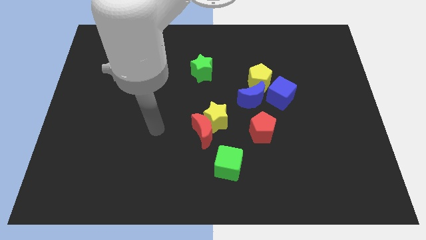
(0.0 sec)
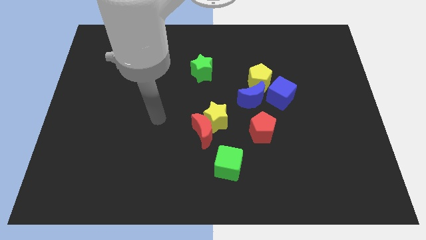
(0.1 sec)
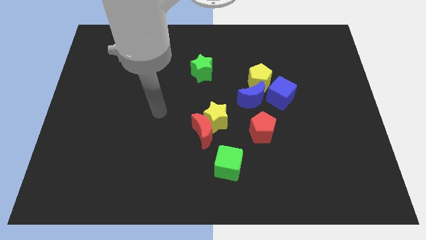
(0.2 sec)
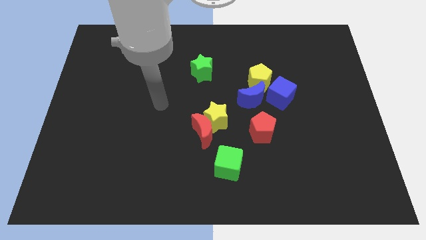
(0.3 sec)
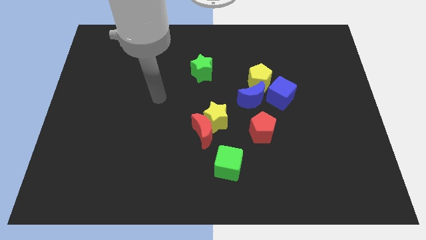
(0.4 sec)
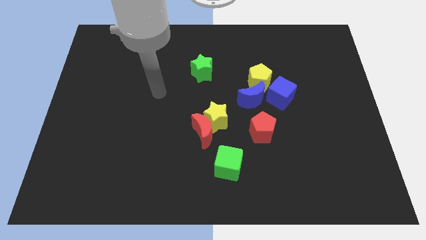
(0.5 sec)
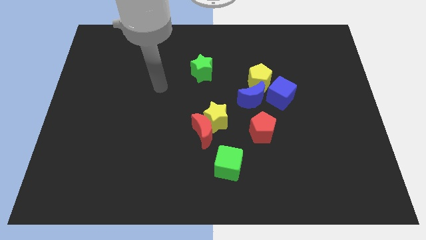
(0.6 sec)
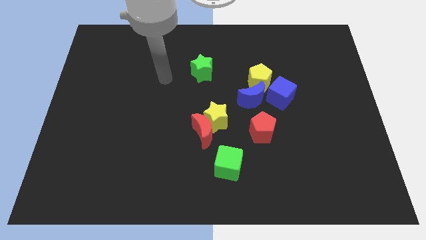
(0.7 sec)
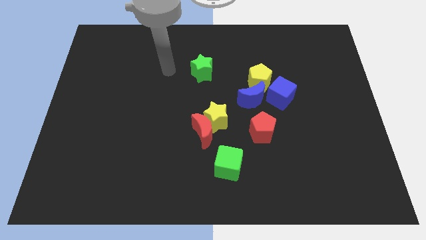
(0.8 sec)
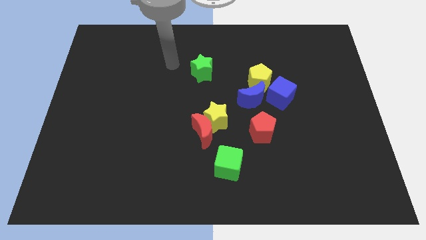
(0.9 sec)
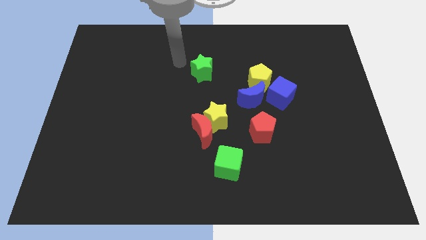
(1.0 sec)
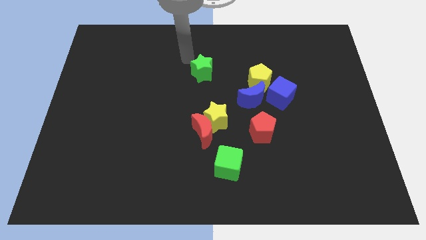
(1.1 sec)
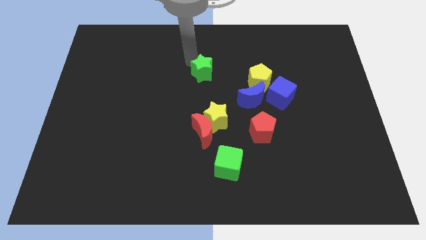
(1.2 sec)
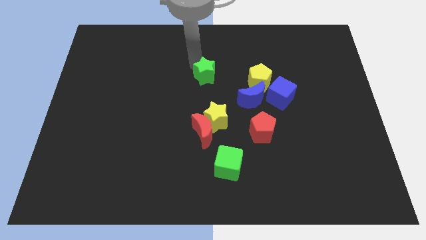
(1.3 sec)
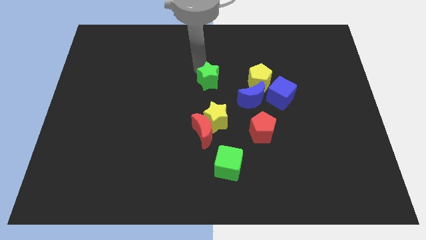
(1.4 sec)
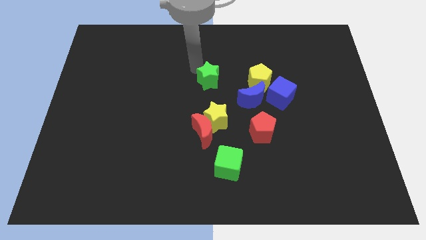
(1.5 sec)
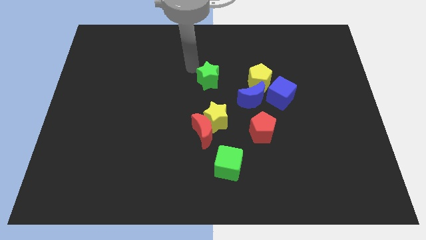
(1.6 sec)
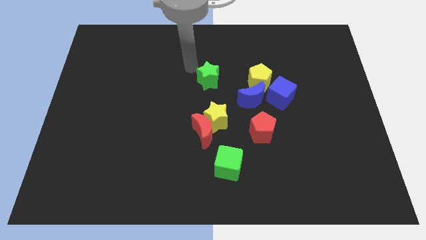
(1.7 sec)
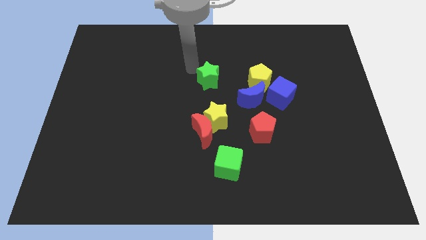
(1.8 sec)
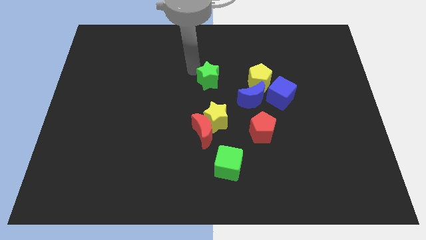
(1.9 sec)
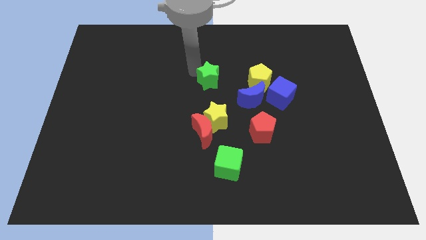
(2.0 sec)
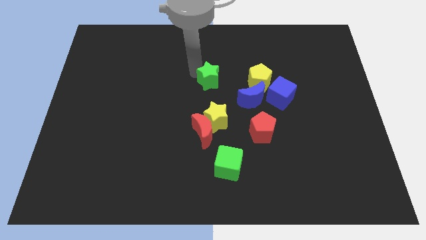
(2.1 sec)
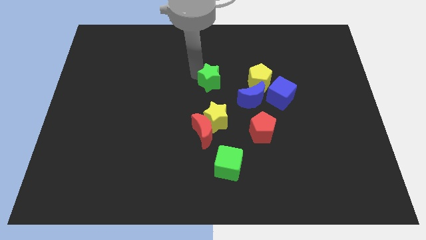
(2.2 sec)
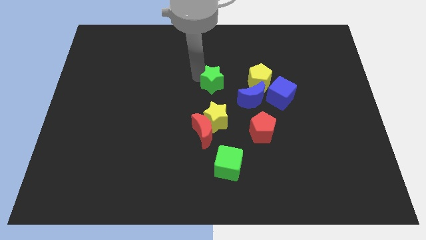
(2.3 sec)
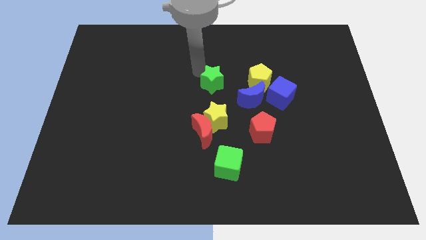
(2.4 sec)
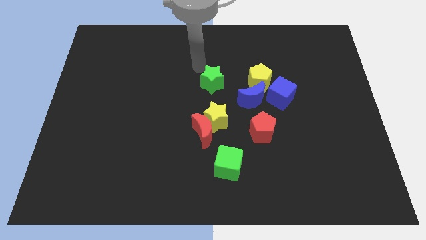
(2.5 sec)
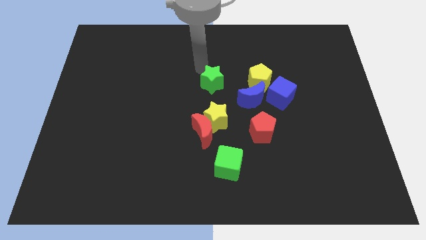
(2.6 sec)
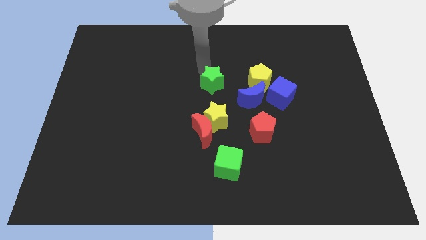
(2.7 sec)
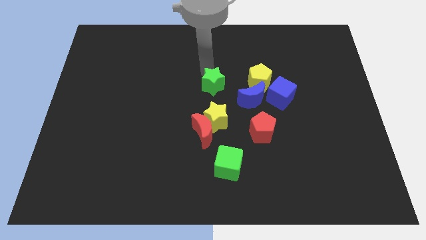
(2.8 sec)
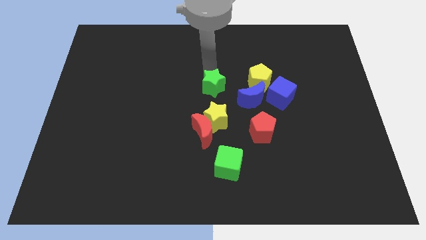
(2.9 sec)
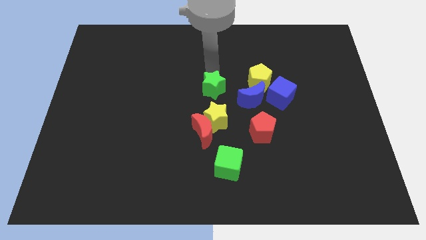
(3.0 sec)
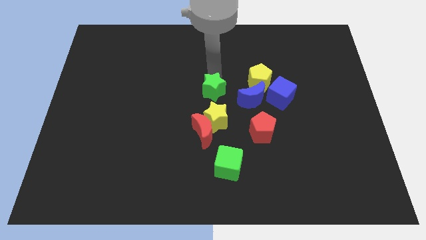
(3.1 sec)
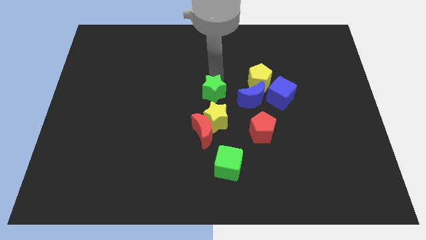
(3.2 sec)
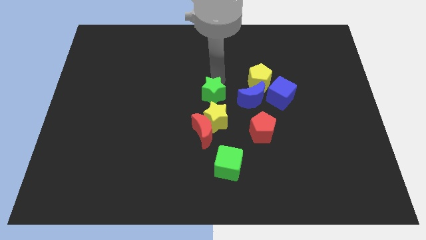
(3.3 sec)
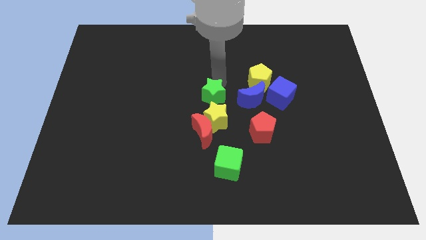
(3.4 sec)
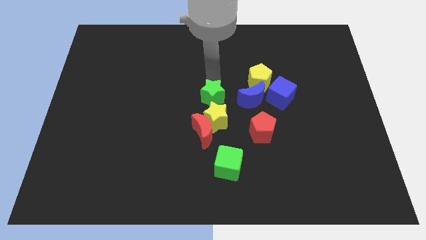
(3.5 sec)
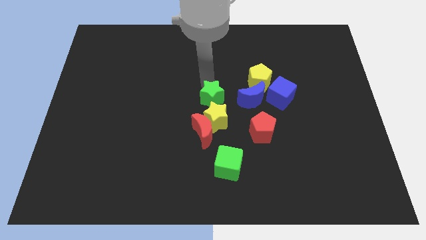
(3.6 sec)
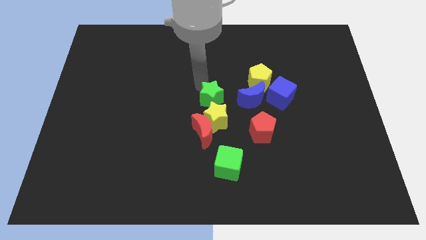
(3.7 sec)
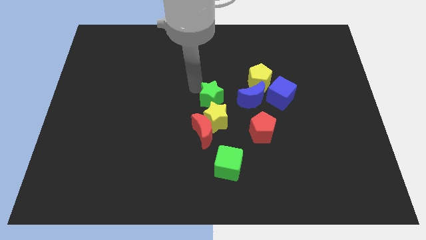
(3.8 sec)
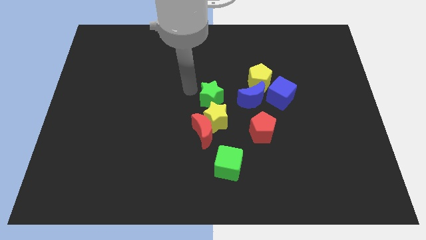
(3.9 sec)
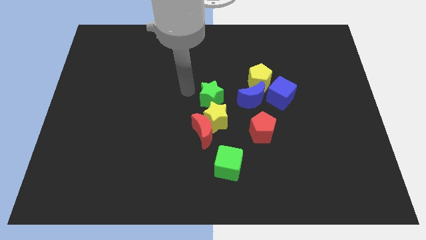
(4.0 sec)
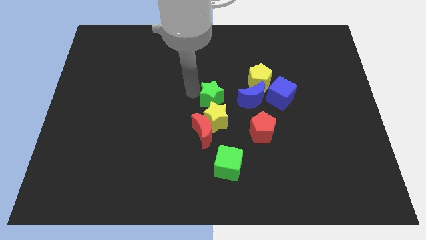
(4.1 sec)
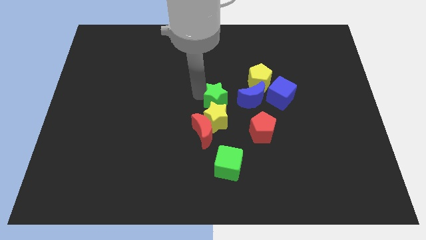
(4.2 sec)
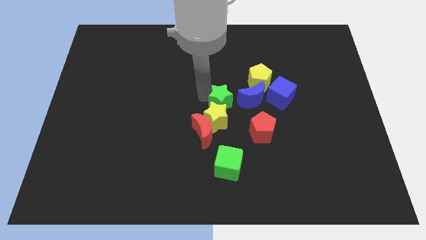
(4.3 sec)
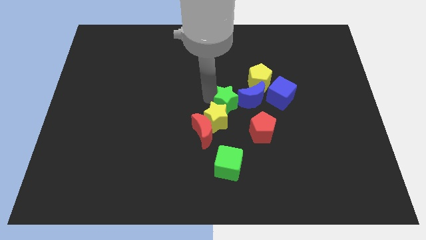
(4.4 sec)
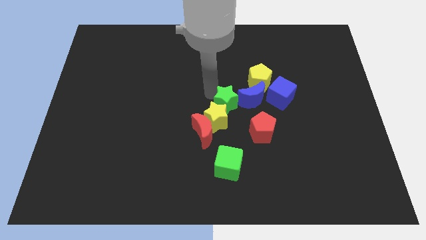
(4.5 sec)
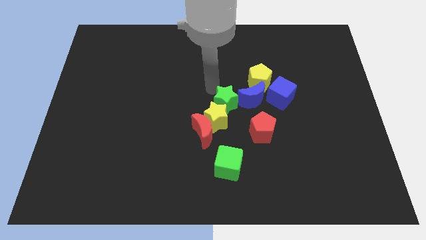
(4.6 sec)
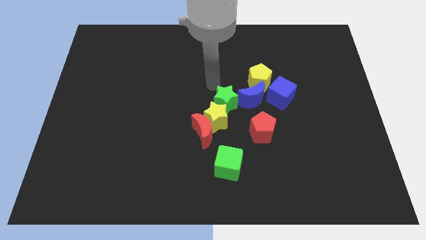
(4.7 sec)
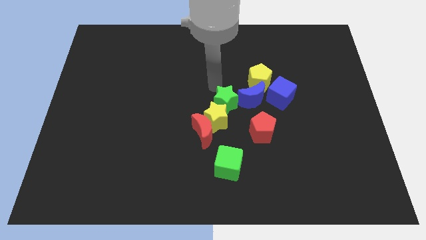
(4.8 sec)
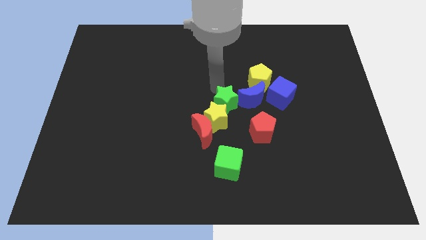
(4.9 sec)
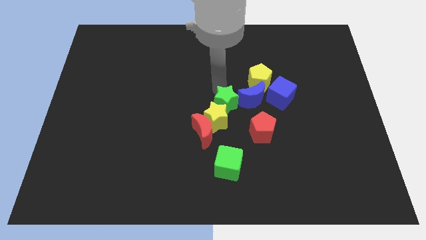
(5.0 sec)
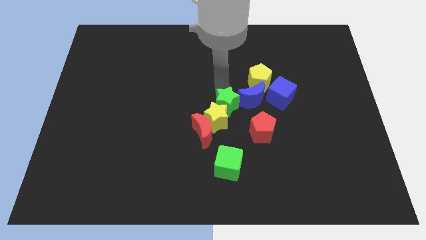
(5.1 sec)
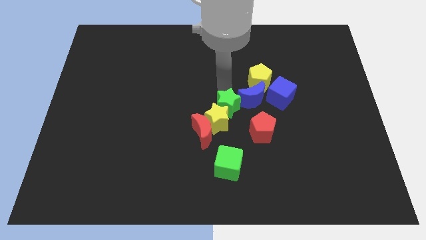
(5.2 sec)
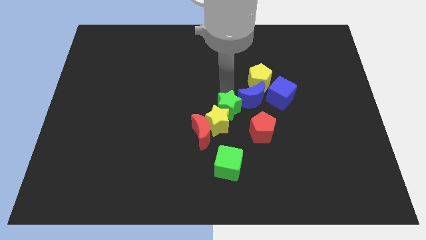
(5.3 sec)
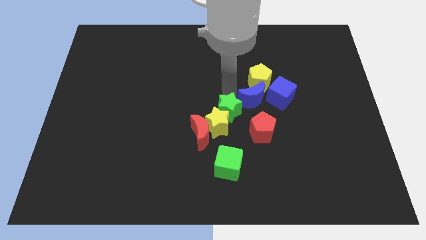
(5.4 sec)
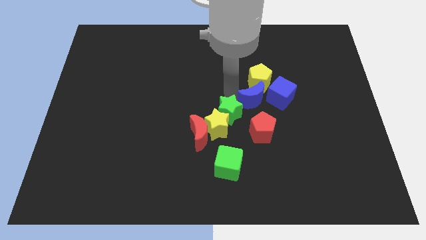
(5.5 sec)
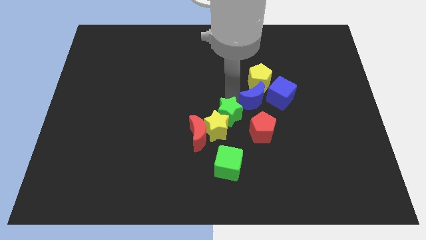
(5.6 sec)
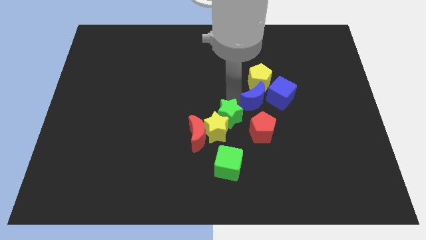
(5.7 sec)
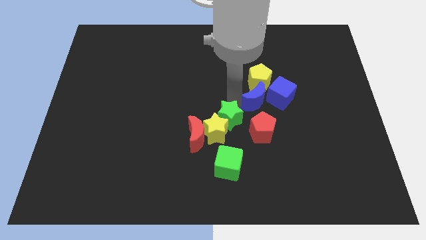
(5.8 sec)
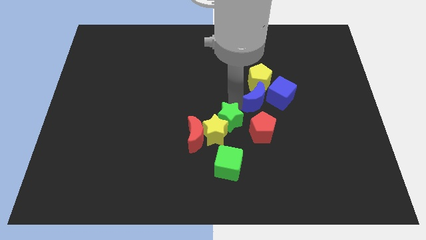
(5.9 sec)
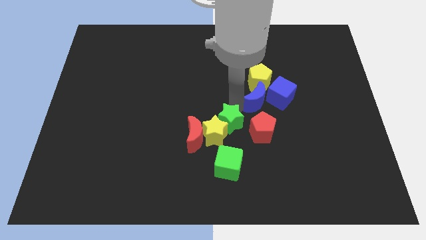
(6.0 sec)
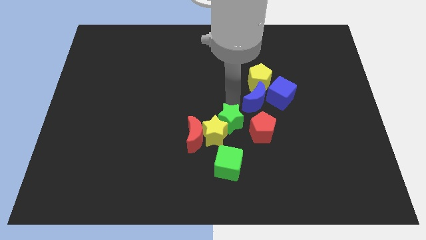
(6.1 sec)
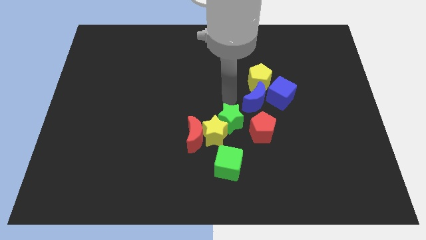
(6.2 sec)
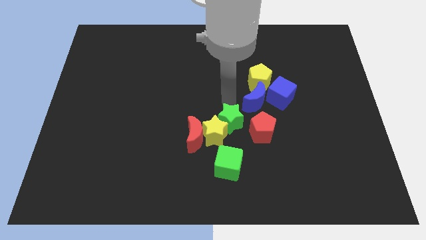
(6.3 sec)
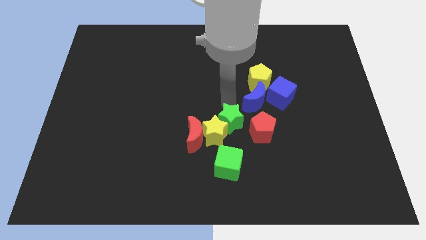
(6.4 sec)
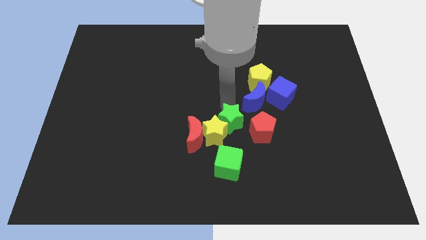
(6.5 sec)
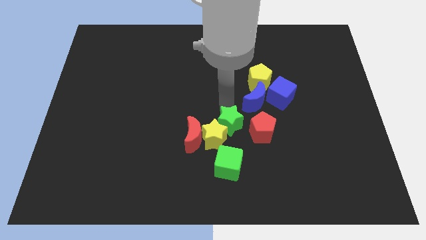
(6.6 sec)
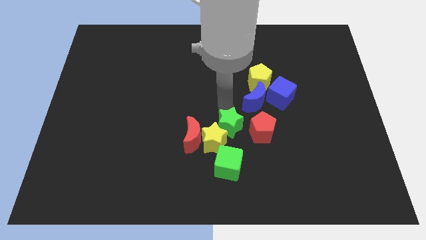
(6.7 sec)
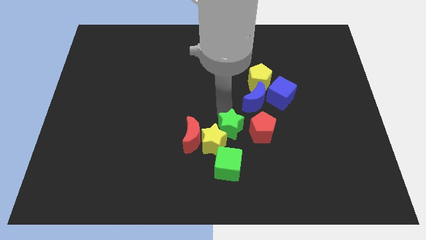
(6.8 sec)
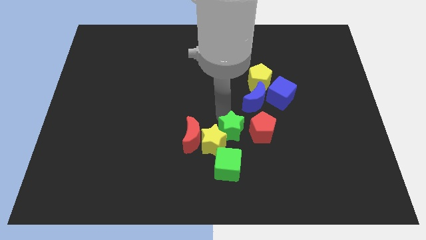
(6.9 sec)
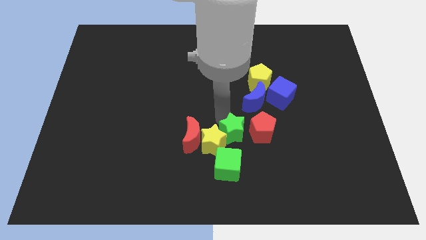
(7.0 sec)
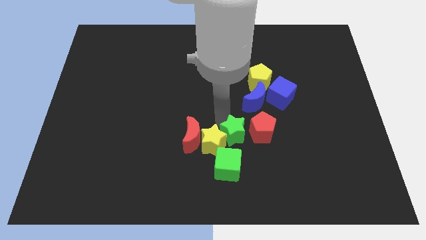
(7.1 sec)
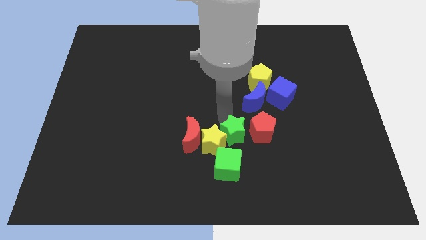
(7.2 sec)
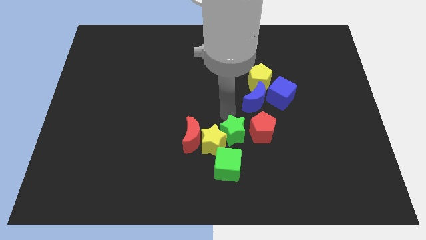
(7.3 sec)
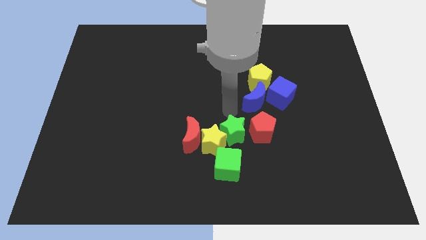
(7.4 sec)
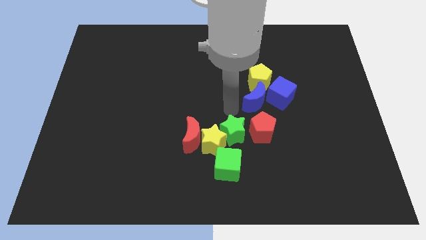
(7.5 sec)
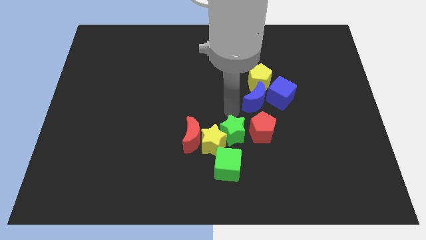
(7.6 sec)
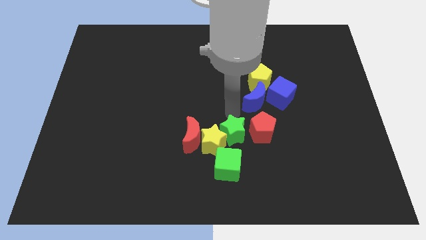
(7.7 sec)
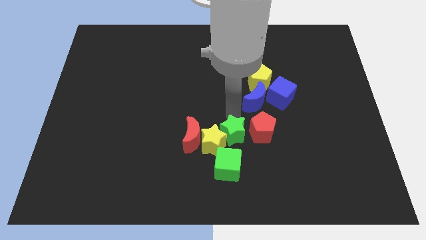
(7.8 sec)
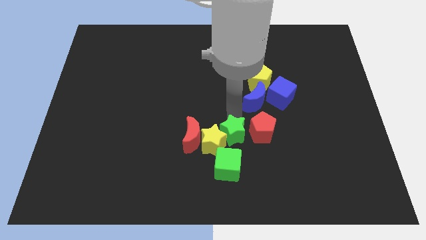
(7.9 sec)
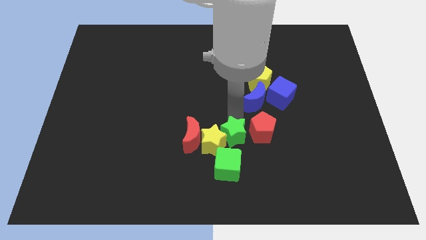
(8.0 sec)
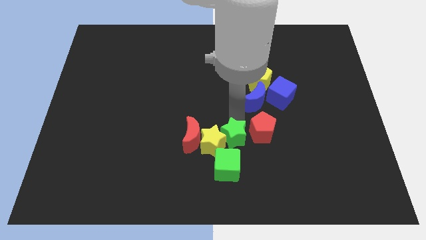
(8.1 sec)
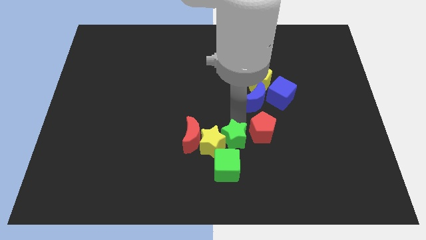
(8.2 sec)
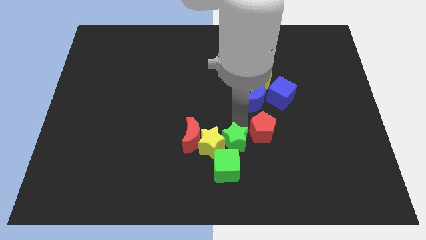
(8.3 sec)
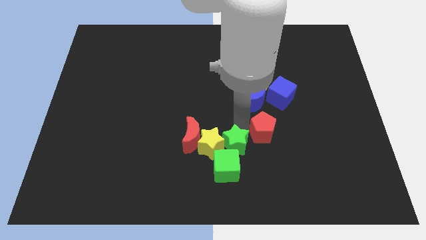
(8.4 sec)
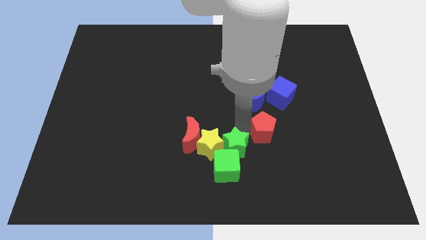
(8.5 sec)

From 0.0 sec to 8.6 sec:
put the green star next to the green cube
